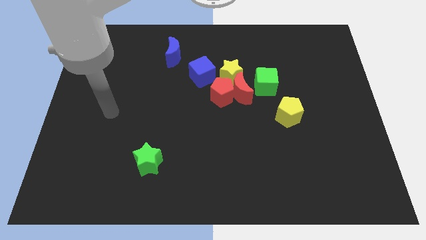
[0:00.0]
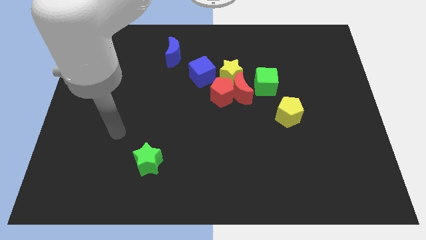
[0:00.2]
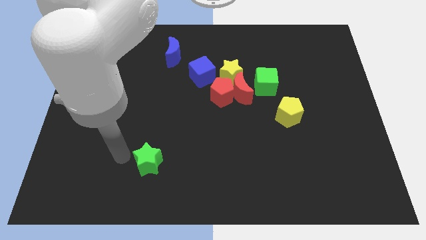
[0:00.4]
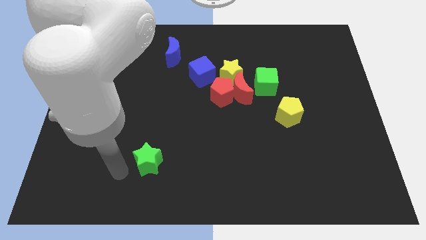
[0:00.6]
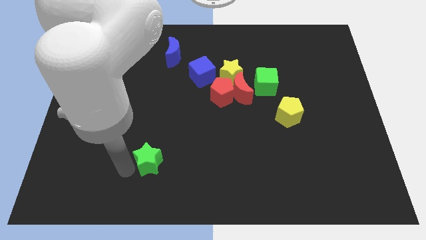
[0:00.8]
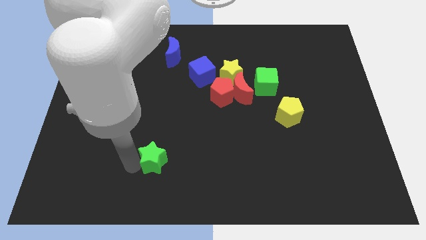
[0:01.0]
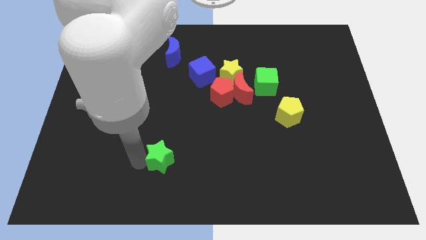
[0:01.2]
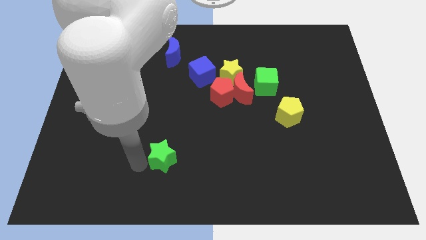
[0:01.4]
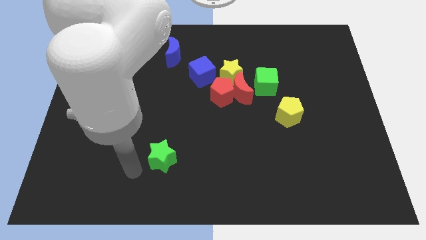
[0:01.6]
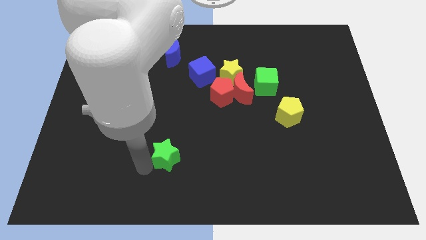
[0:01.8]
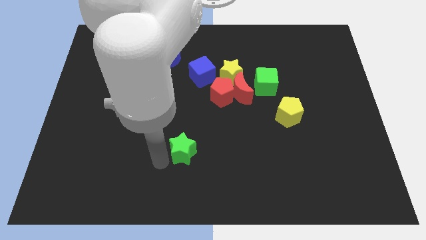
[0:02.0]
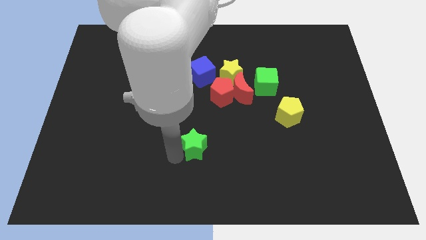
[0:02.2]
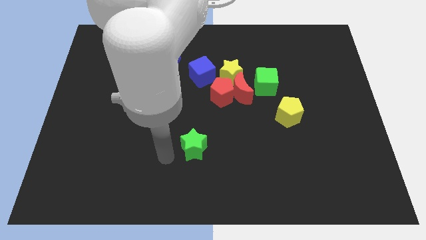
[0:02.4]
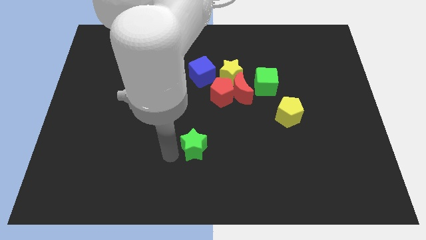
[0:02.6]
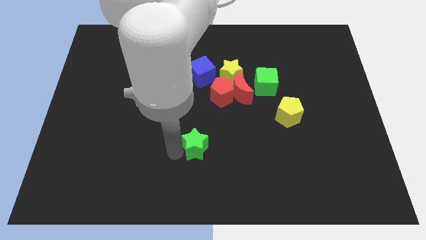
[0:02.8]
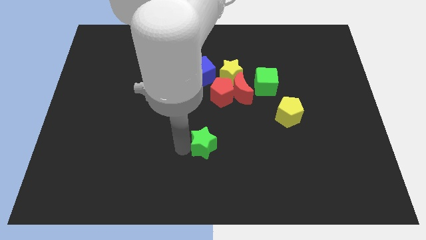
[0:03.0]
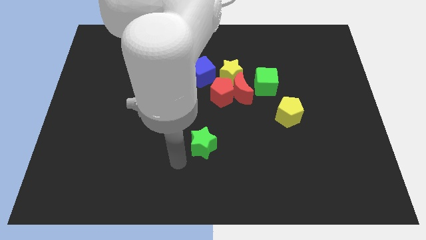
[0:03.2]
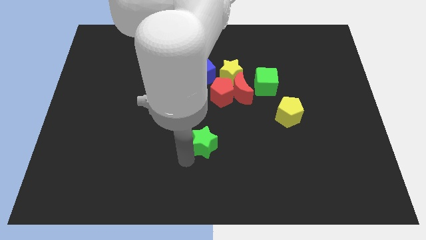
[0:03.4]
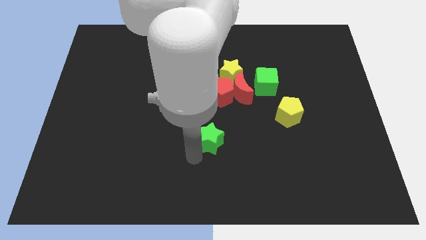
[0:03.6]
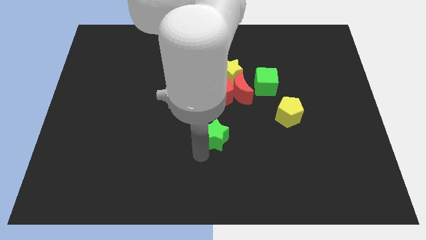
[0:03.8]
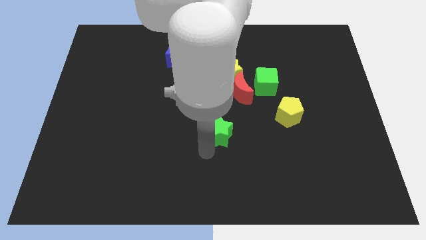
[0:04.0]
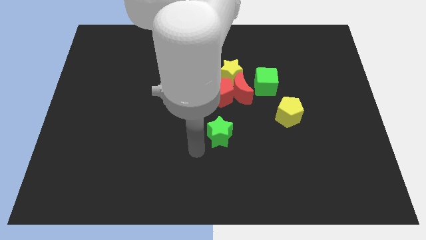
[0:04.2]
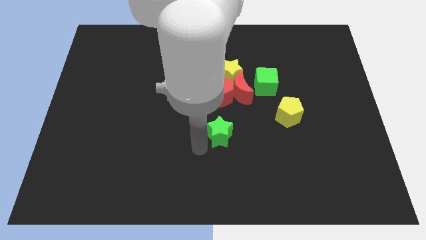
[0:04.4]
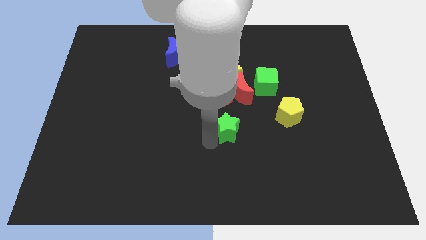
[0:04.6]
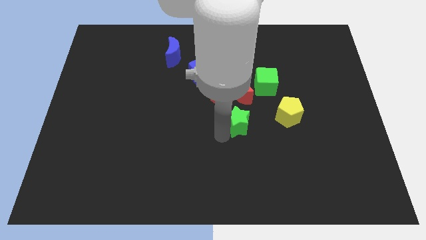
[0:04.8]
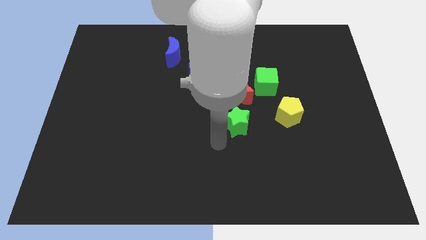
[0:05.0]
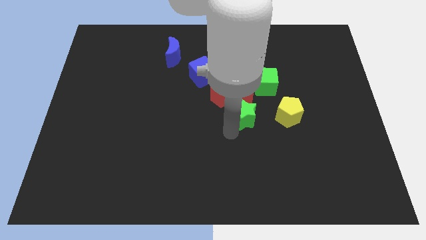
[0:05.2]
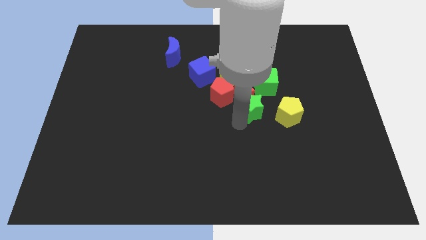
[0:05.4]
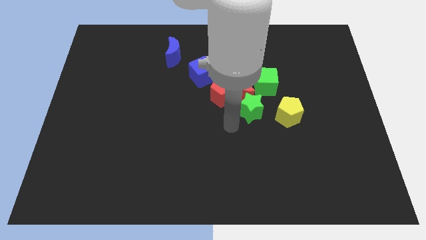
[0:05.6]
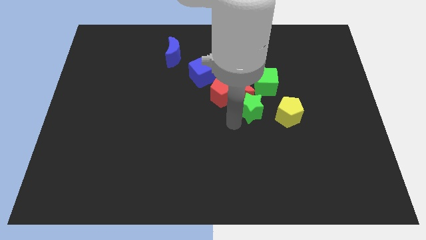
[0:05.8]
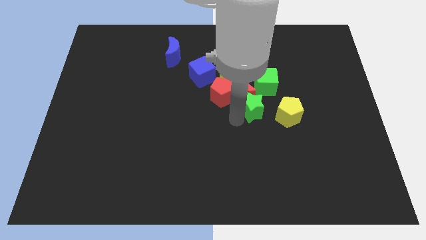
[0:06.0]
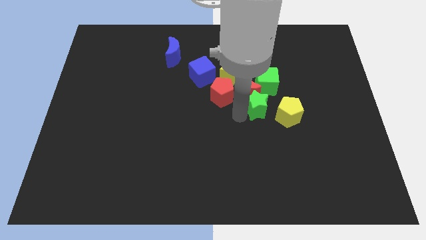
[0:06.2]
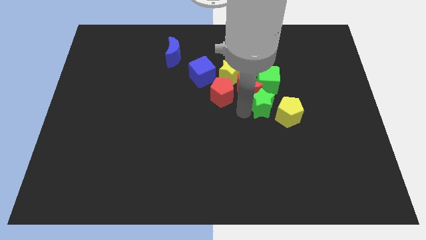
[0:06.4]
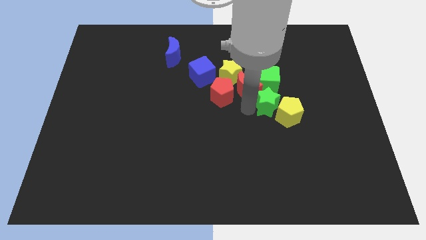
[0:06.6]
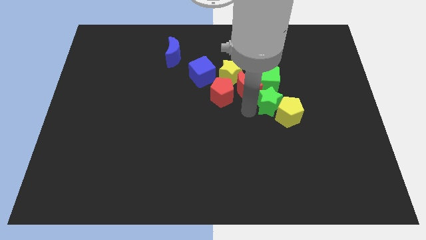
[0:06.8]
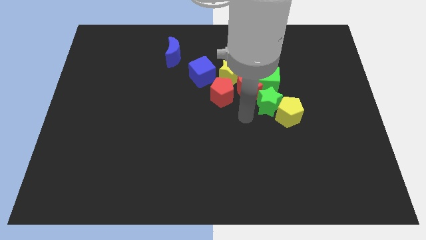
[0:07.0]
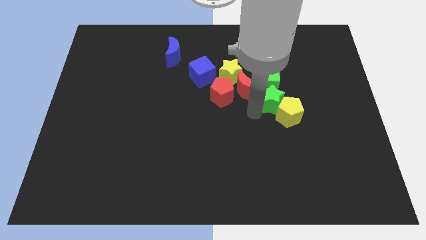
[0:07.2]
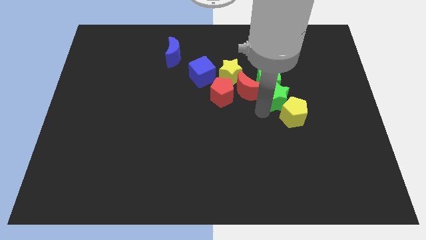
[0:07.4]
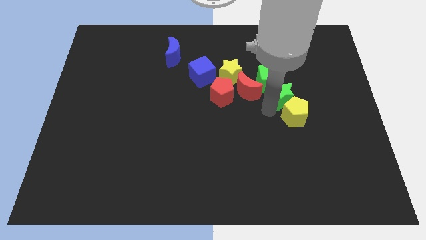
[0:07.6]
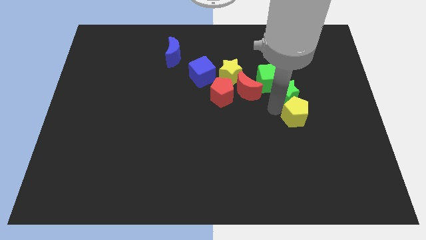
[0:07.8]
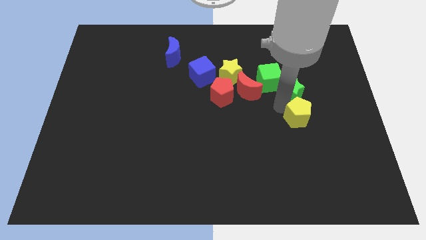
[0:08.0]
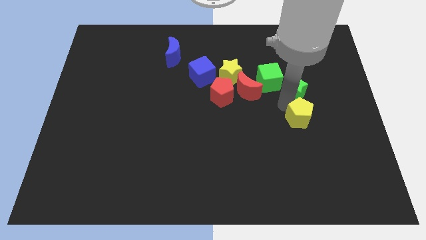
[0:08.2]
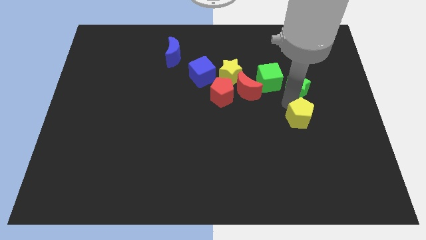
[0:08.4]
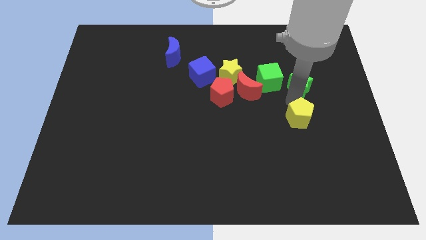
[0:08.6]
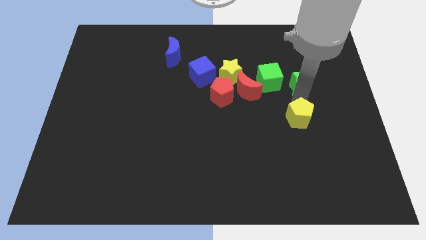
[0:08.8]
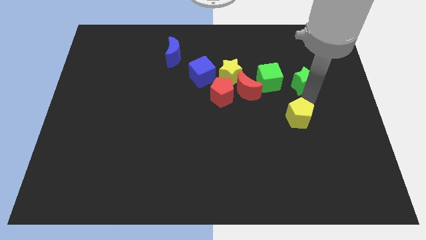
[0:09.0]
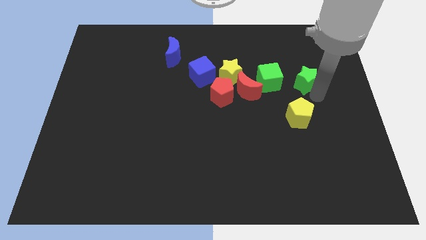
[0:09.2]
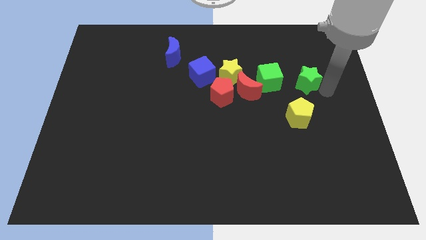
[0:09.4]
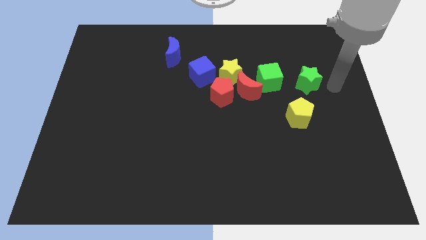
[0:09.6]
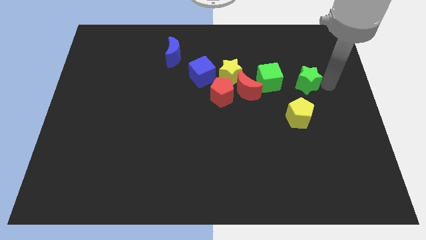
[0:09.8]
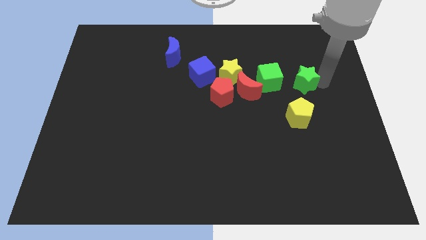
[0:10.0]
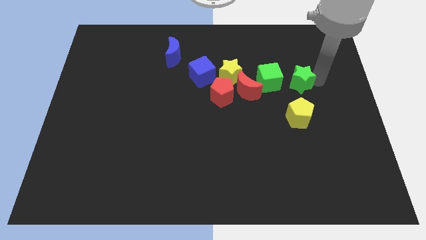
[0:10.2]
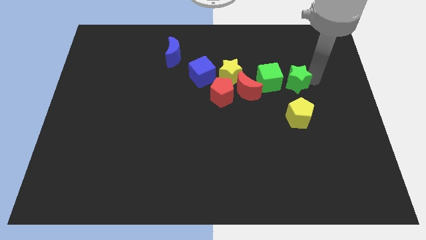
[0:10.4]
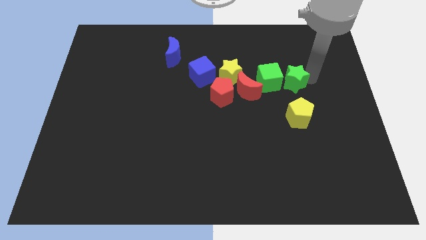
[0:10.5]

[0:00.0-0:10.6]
slide the green star to the top right side of the green cube

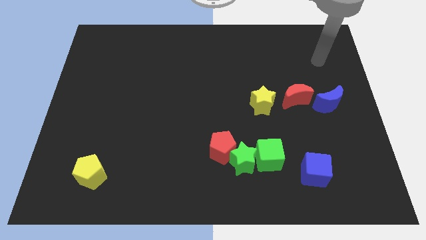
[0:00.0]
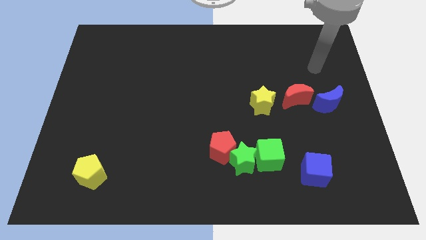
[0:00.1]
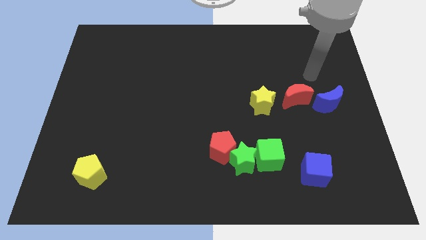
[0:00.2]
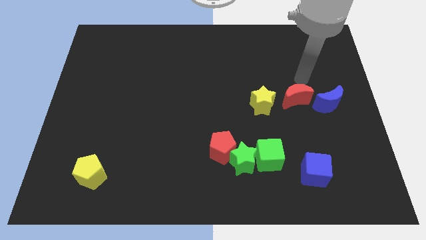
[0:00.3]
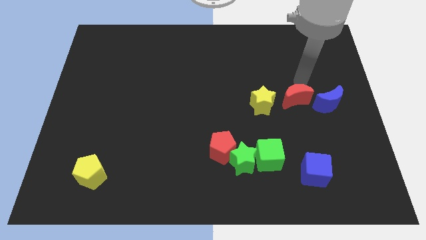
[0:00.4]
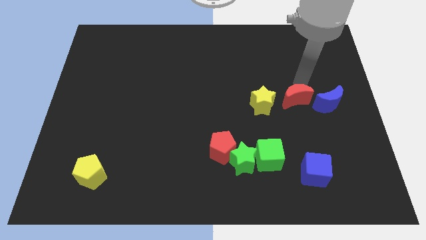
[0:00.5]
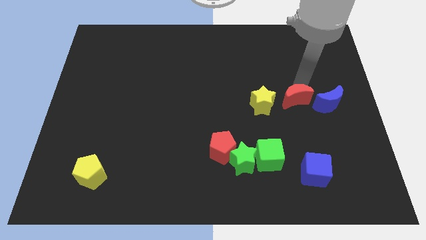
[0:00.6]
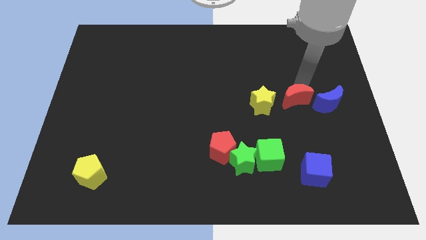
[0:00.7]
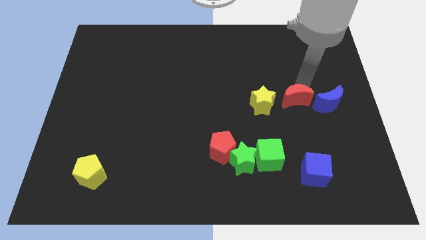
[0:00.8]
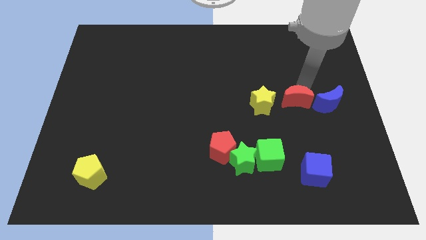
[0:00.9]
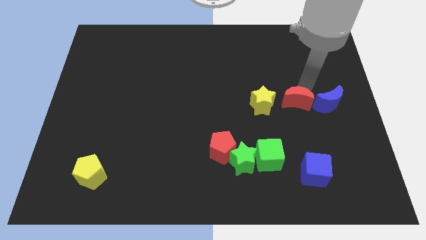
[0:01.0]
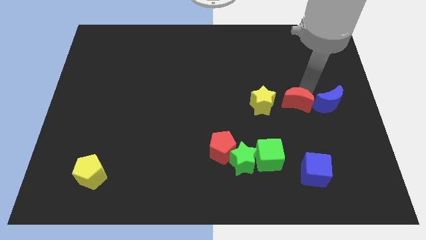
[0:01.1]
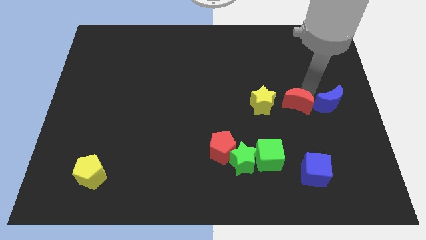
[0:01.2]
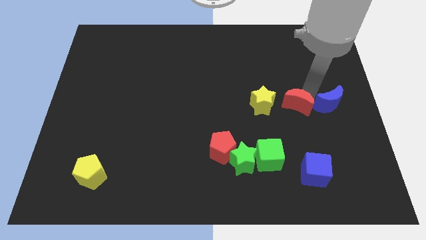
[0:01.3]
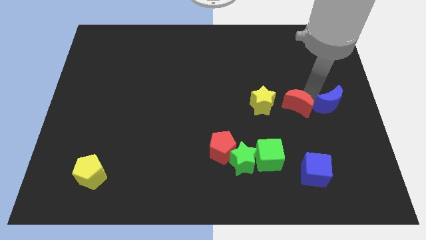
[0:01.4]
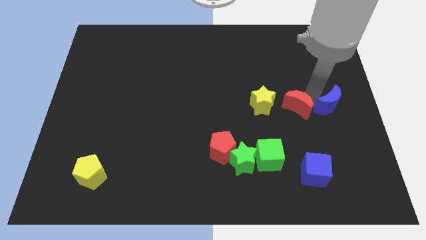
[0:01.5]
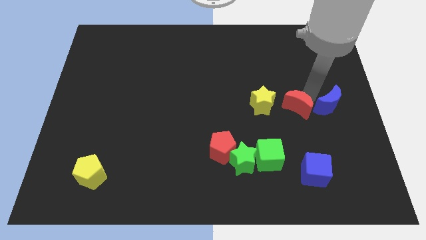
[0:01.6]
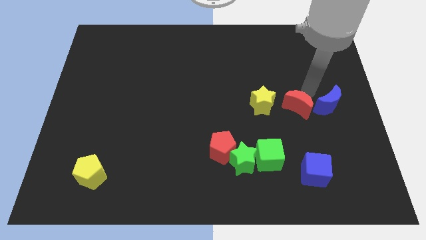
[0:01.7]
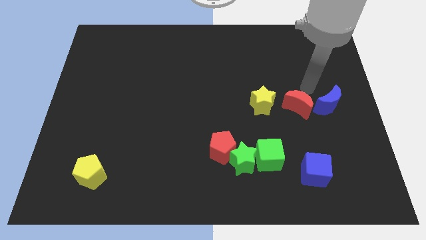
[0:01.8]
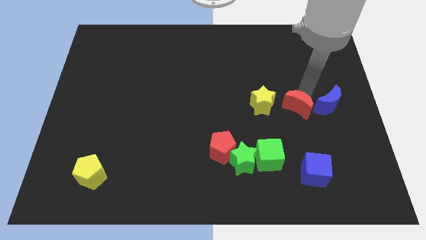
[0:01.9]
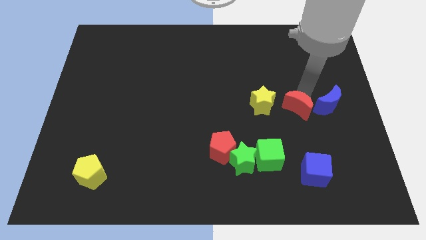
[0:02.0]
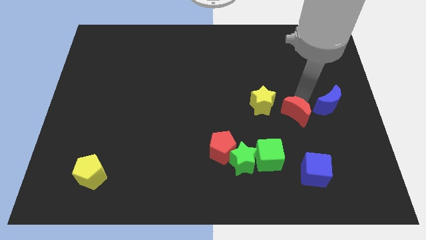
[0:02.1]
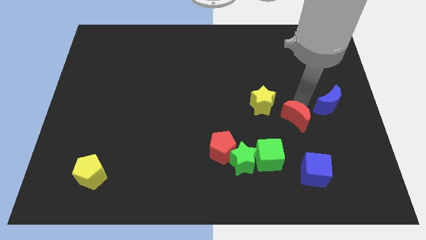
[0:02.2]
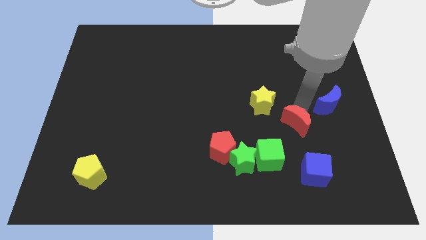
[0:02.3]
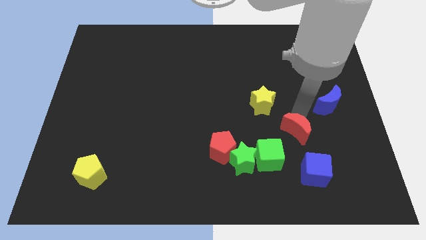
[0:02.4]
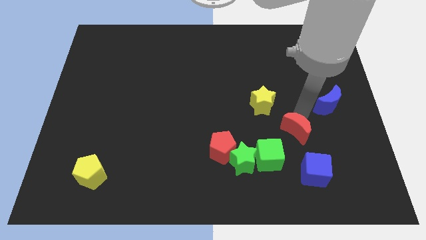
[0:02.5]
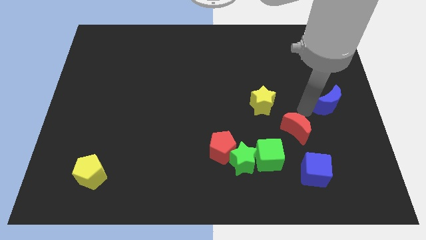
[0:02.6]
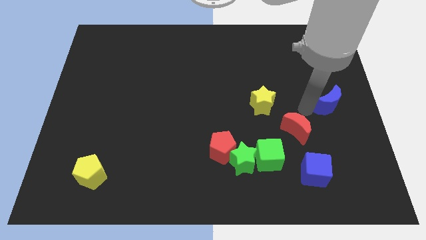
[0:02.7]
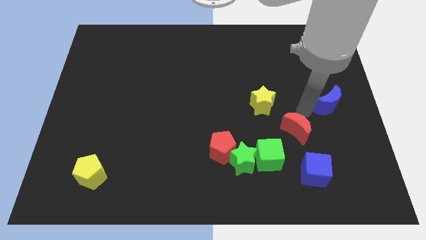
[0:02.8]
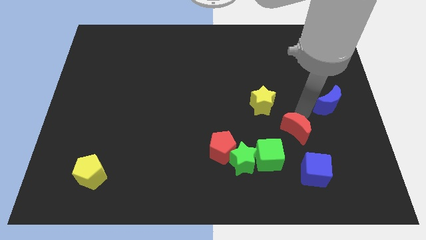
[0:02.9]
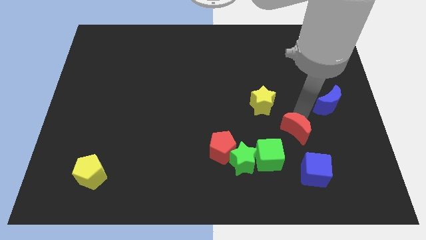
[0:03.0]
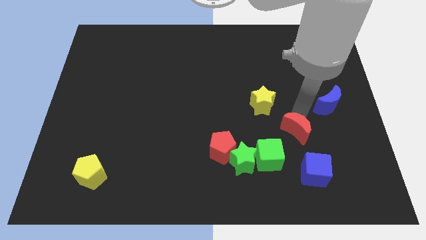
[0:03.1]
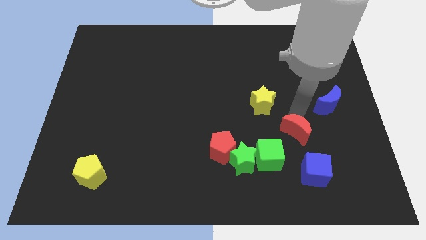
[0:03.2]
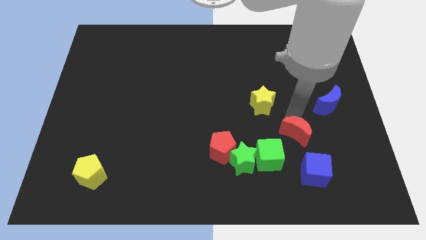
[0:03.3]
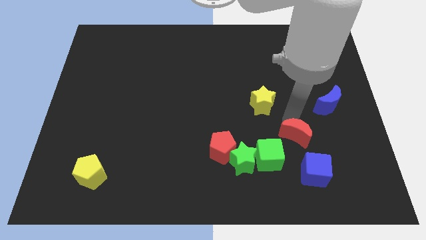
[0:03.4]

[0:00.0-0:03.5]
move the red moon diagonally up and to the left of the blue cube

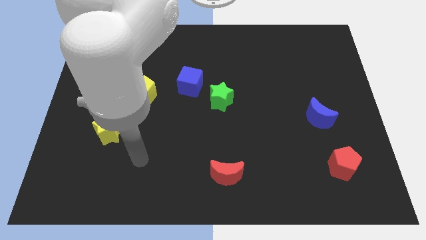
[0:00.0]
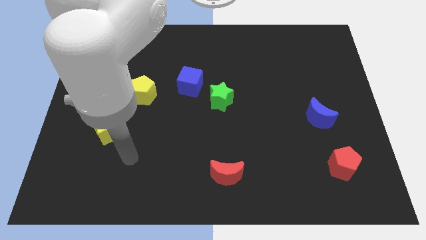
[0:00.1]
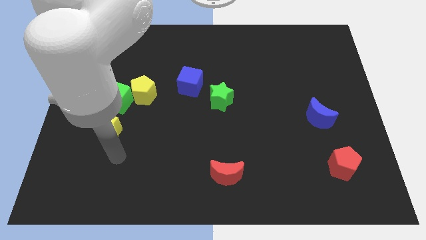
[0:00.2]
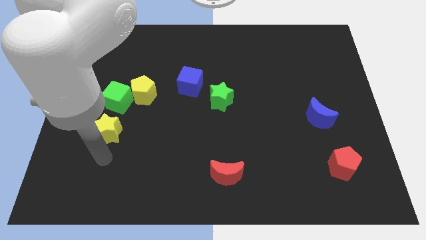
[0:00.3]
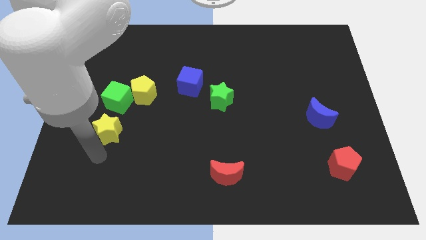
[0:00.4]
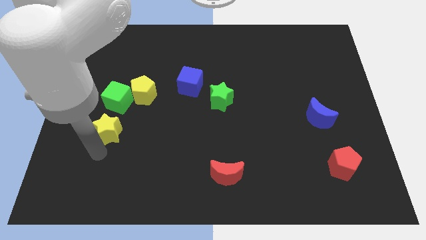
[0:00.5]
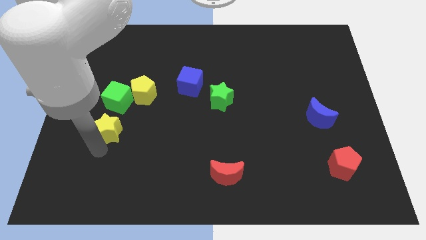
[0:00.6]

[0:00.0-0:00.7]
put the yellow star to the bottom left side of the yellow pentagon
